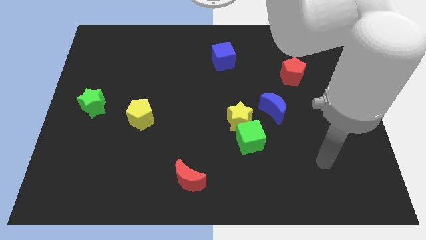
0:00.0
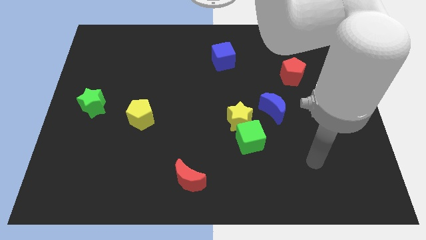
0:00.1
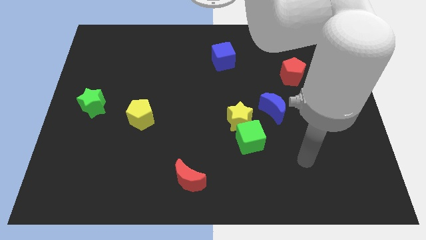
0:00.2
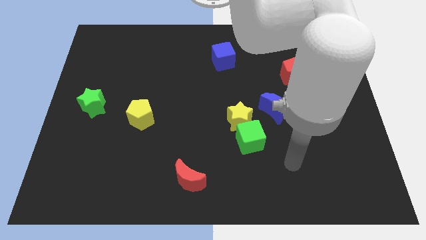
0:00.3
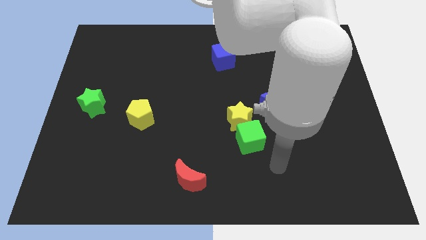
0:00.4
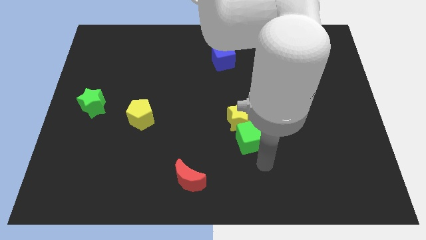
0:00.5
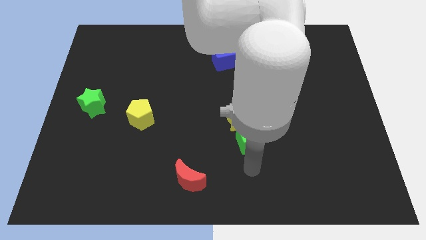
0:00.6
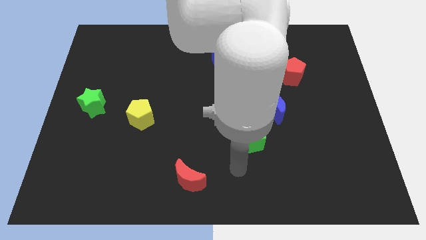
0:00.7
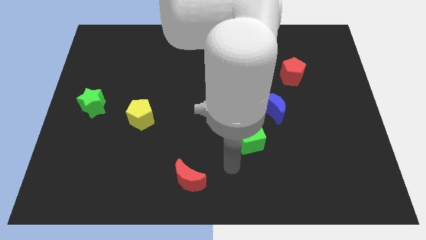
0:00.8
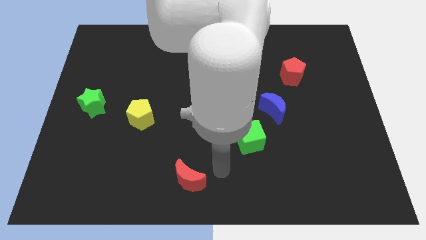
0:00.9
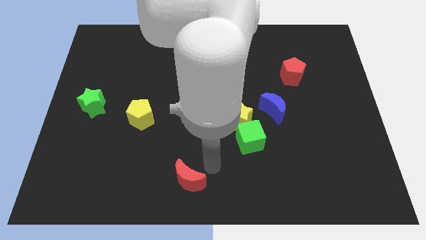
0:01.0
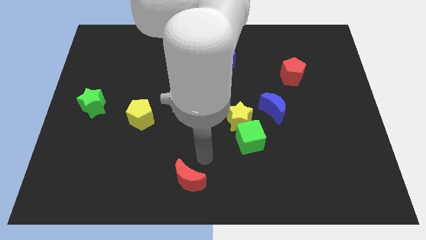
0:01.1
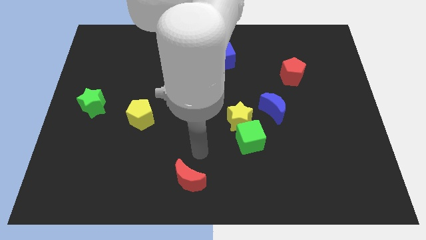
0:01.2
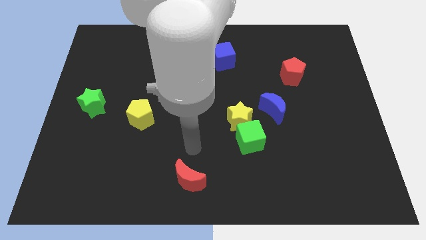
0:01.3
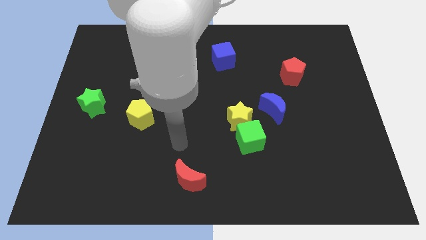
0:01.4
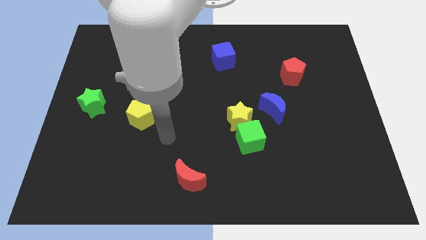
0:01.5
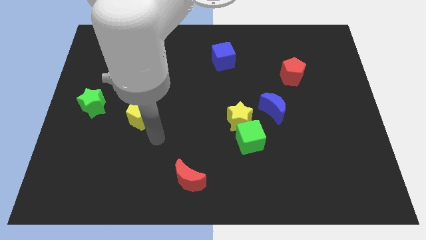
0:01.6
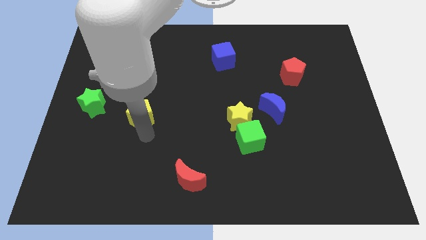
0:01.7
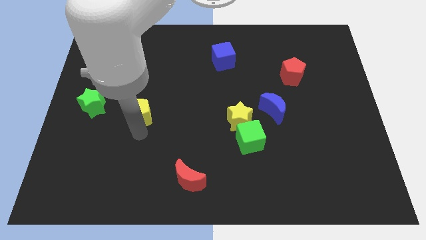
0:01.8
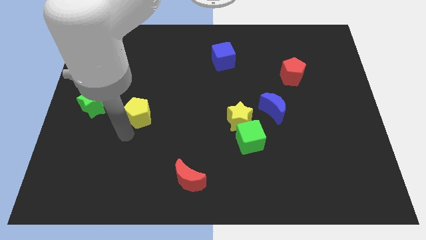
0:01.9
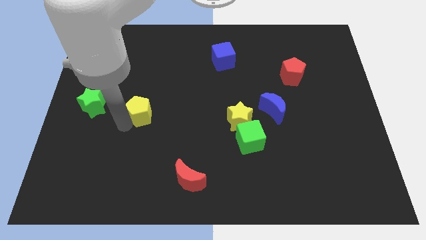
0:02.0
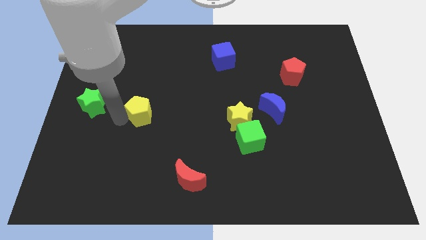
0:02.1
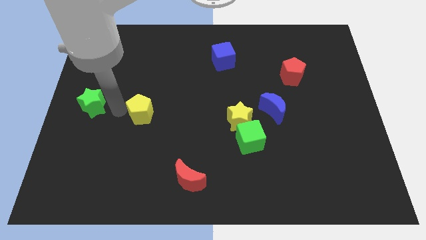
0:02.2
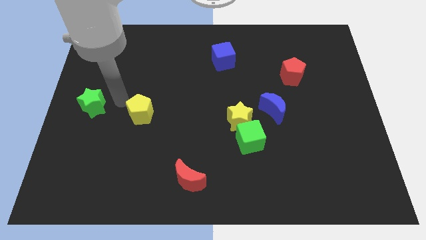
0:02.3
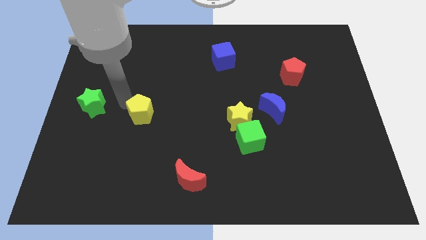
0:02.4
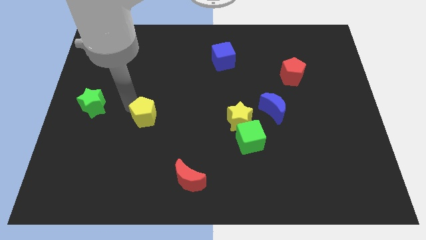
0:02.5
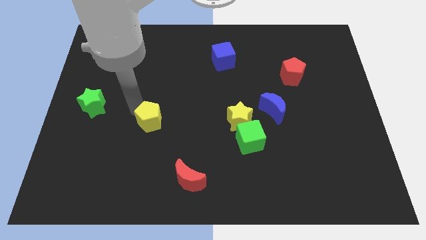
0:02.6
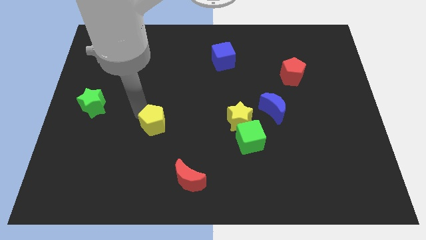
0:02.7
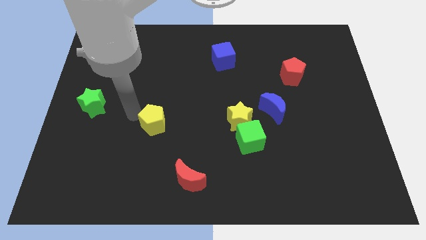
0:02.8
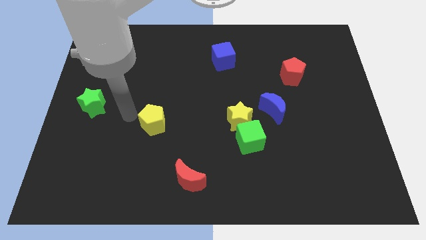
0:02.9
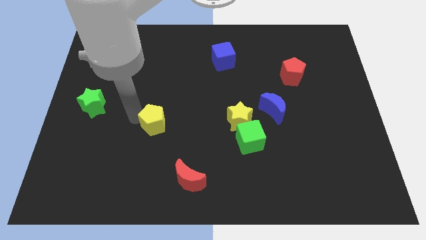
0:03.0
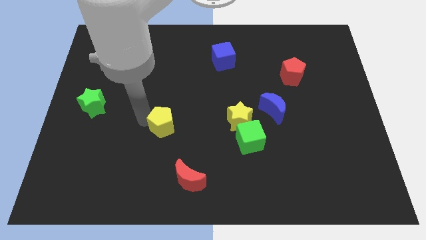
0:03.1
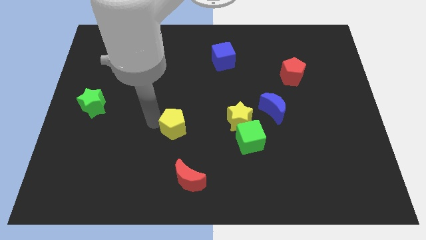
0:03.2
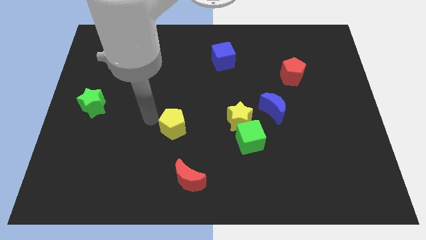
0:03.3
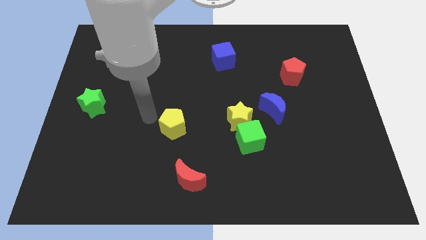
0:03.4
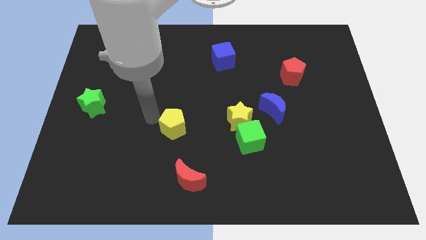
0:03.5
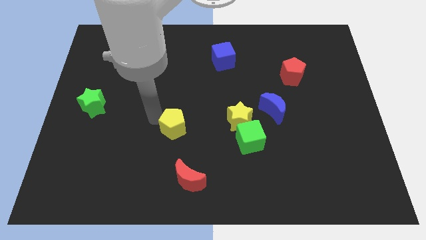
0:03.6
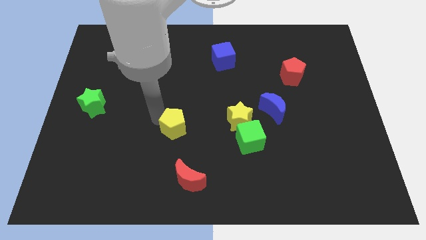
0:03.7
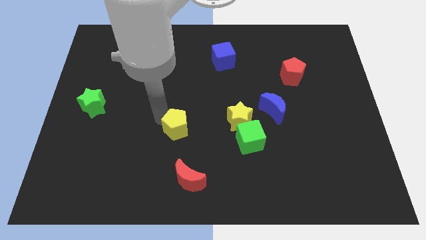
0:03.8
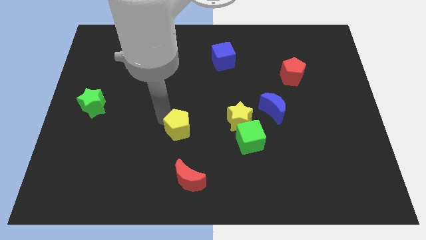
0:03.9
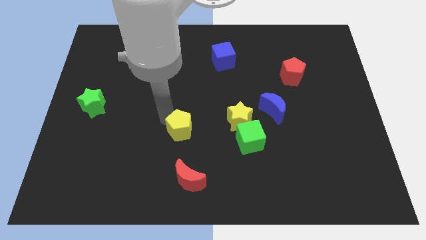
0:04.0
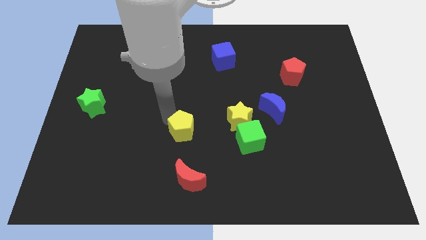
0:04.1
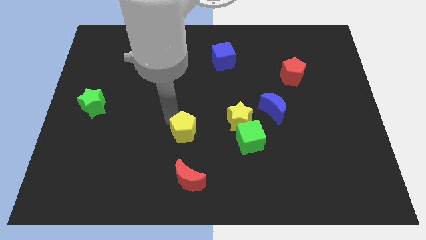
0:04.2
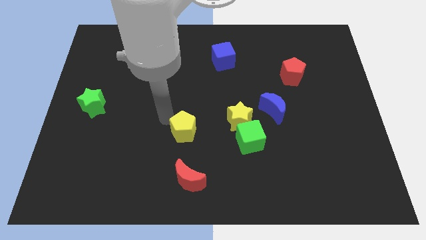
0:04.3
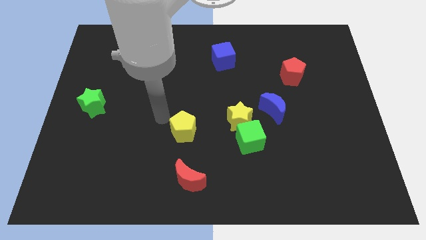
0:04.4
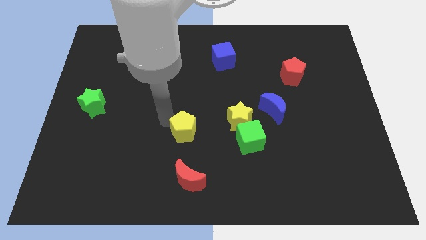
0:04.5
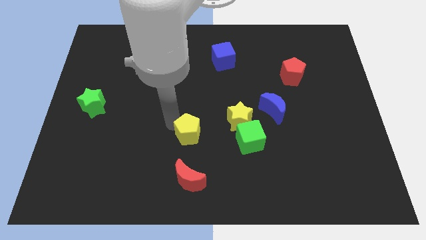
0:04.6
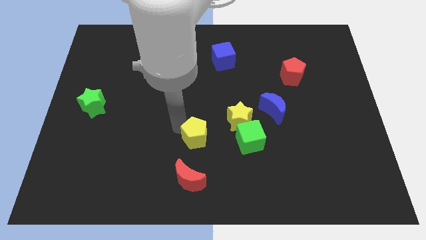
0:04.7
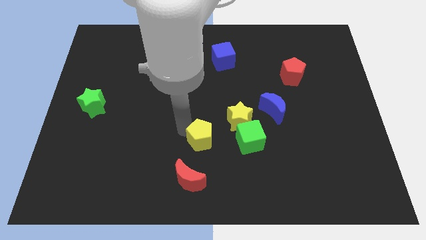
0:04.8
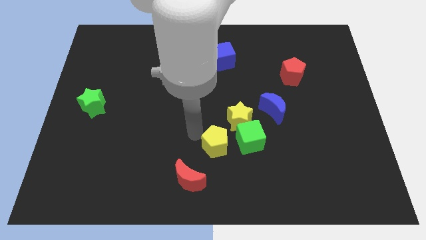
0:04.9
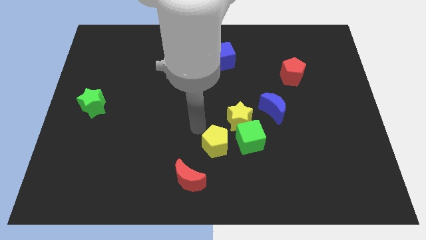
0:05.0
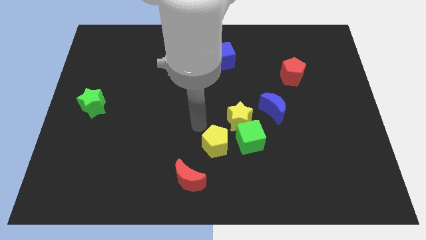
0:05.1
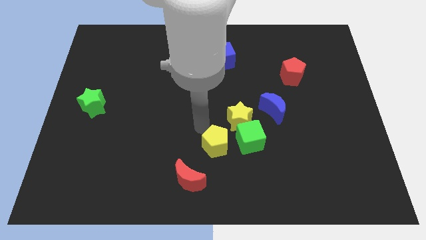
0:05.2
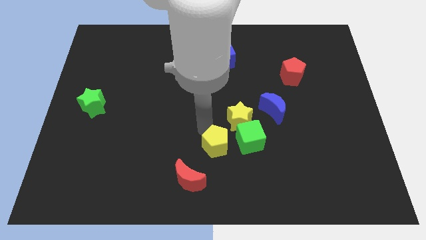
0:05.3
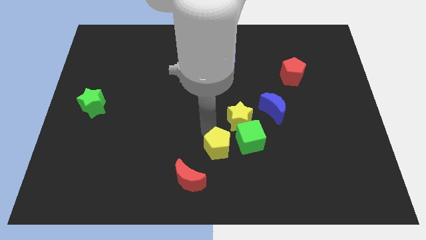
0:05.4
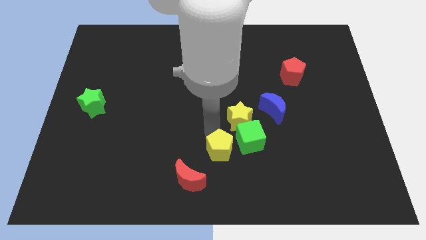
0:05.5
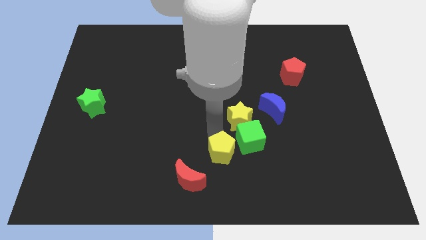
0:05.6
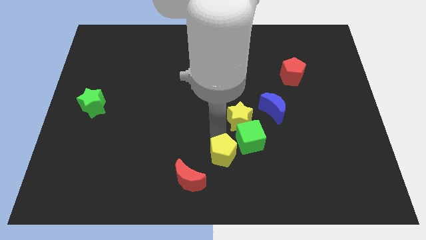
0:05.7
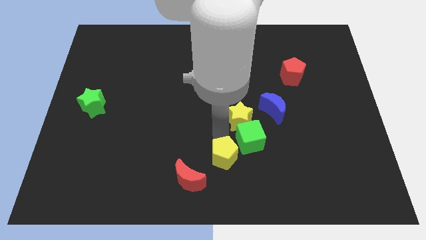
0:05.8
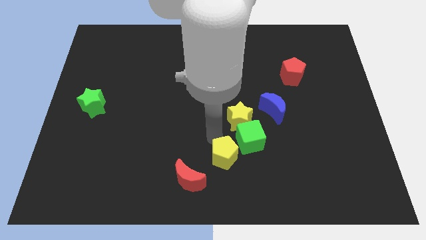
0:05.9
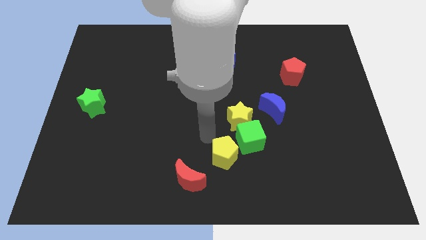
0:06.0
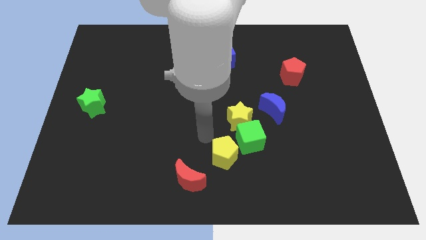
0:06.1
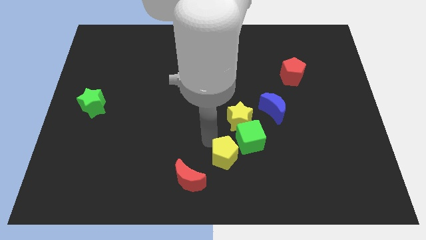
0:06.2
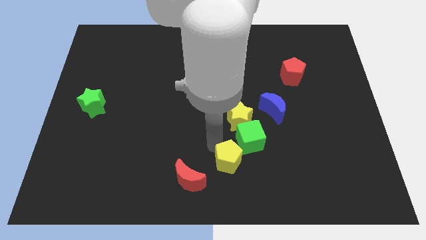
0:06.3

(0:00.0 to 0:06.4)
slide the yellow pentagon to the bottom side of the green cube
